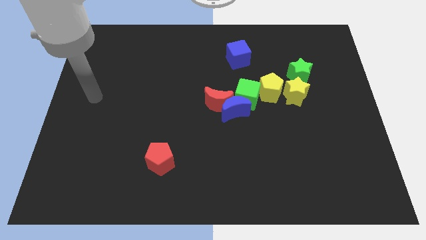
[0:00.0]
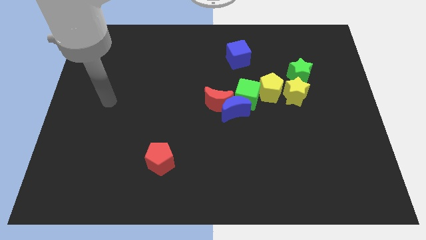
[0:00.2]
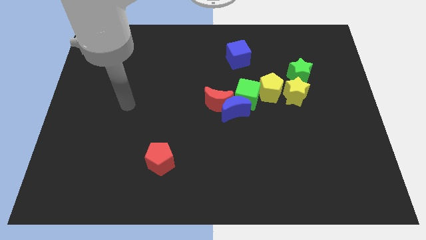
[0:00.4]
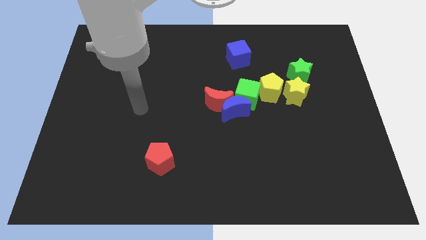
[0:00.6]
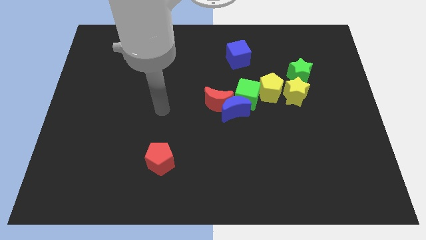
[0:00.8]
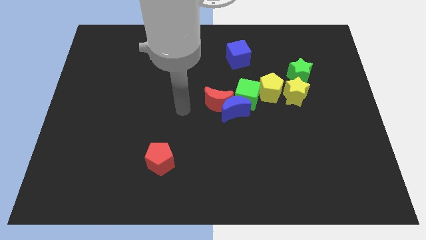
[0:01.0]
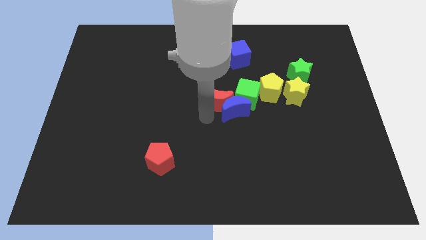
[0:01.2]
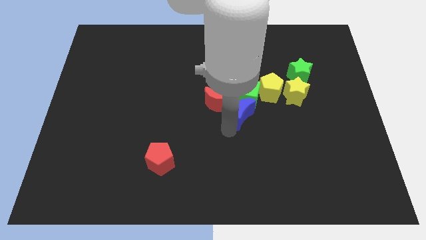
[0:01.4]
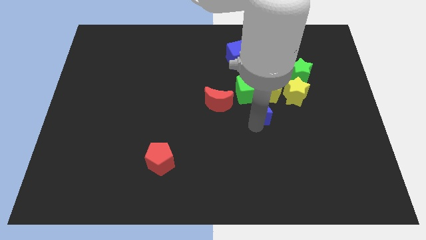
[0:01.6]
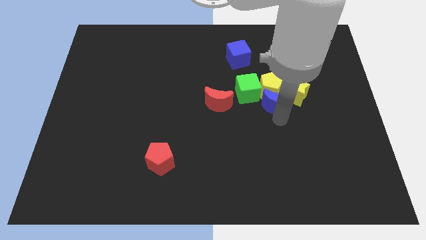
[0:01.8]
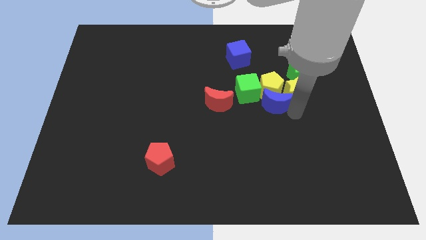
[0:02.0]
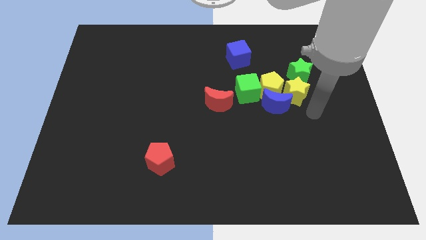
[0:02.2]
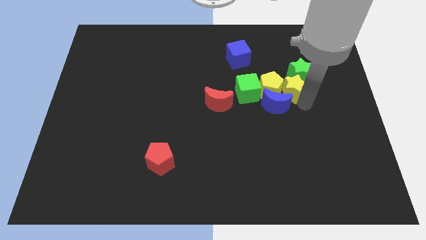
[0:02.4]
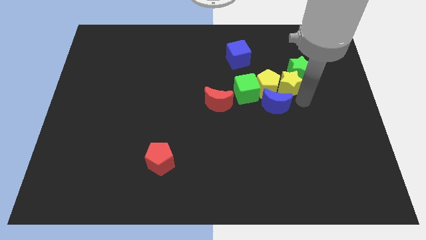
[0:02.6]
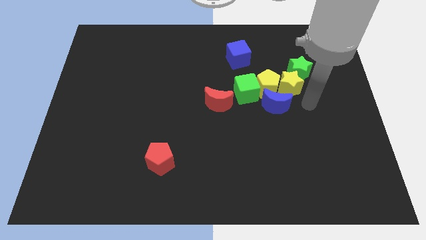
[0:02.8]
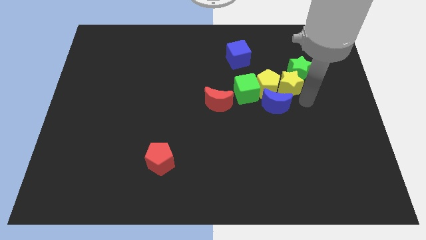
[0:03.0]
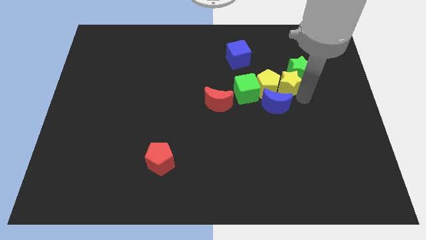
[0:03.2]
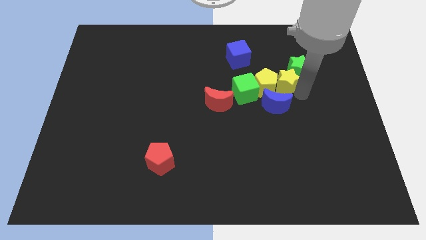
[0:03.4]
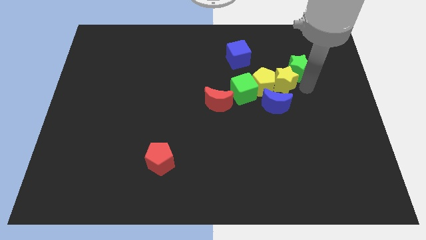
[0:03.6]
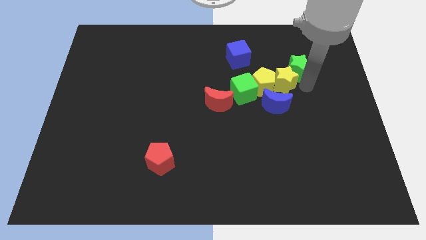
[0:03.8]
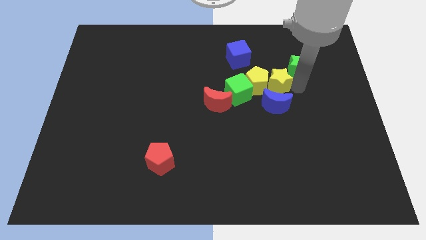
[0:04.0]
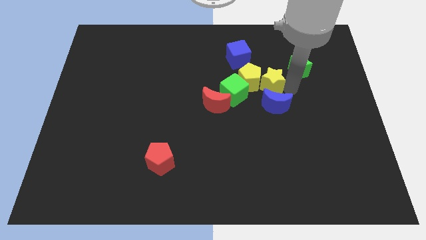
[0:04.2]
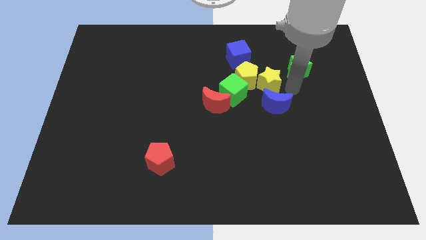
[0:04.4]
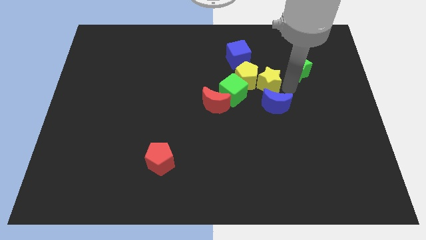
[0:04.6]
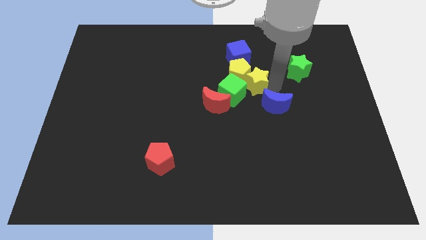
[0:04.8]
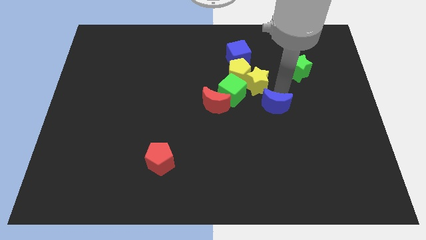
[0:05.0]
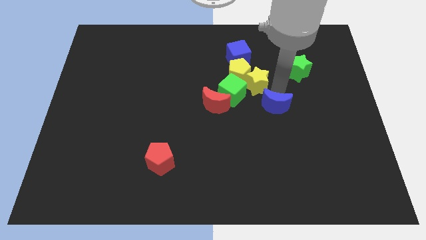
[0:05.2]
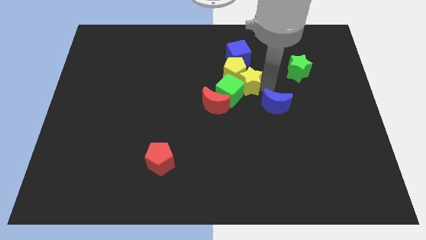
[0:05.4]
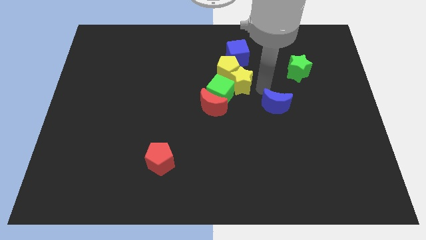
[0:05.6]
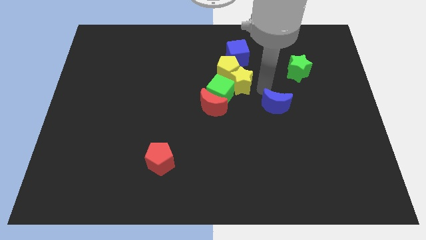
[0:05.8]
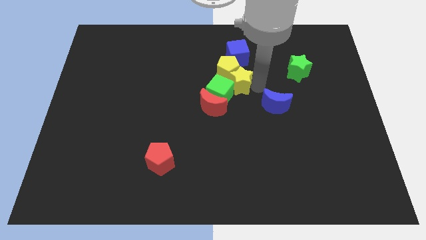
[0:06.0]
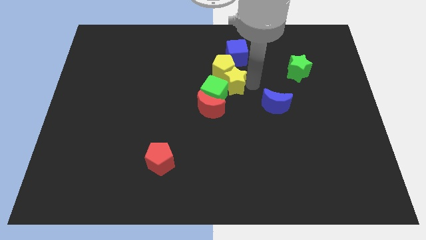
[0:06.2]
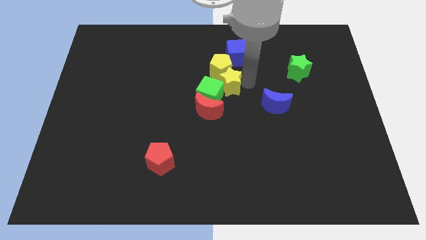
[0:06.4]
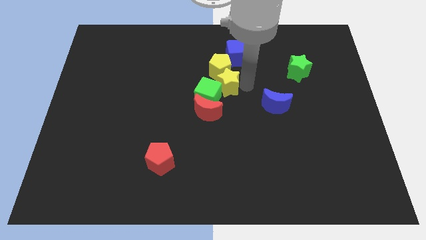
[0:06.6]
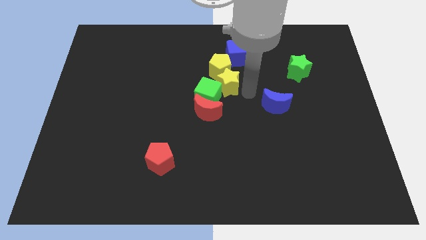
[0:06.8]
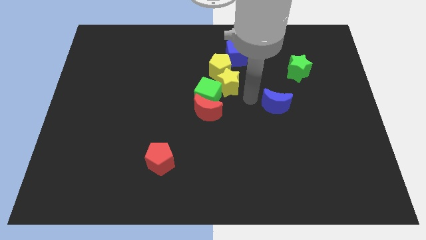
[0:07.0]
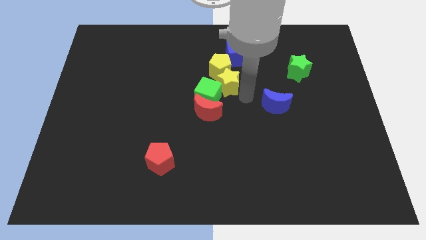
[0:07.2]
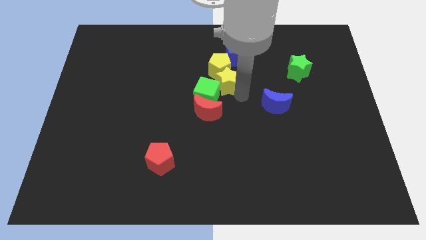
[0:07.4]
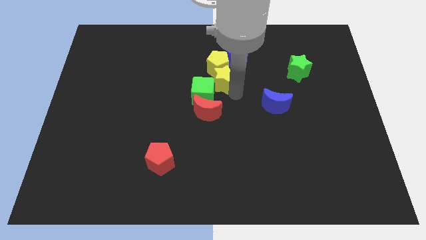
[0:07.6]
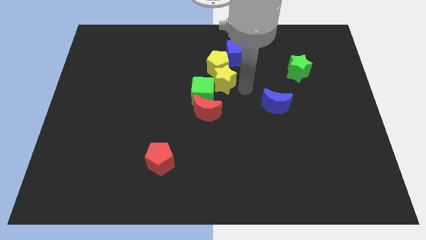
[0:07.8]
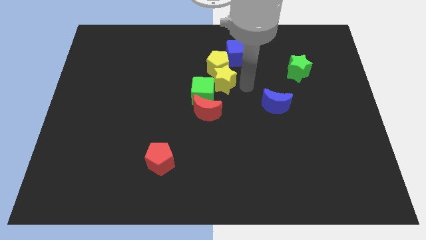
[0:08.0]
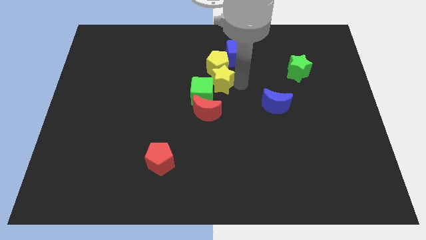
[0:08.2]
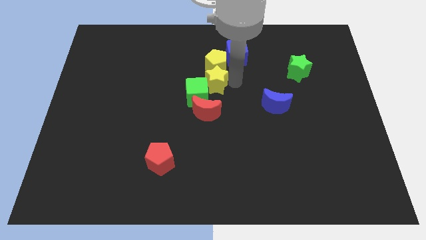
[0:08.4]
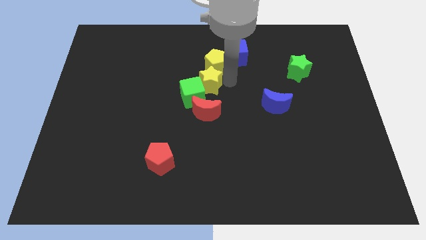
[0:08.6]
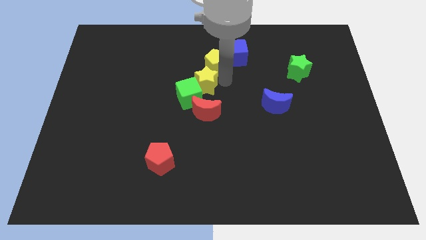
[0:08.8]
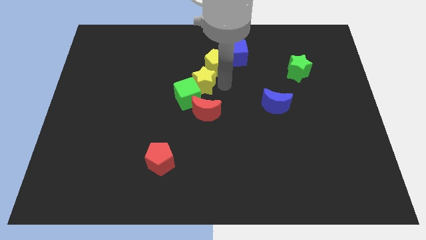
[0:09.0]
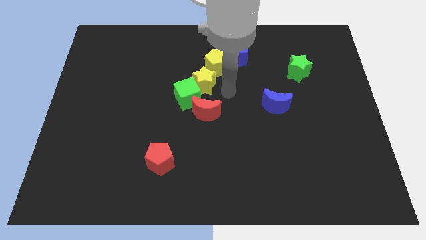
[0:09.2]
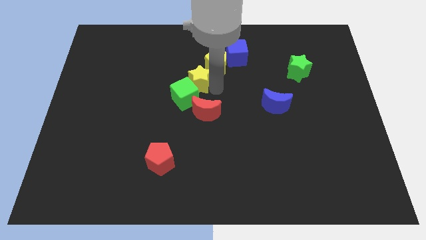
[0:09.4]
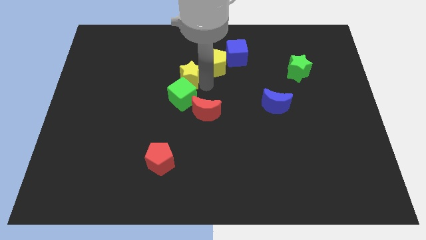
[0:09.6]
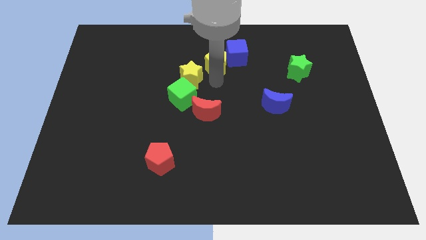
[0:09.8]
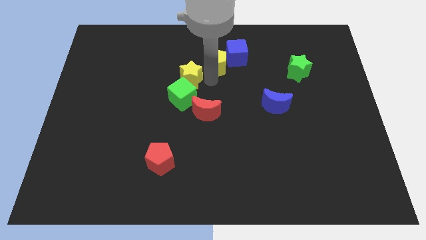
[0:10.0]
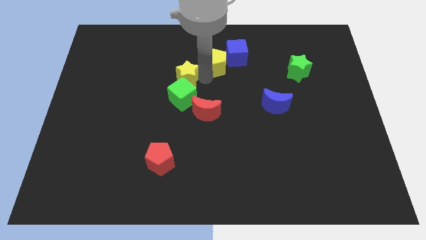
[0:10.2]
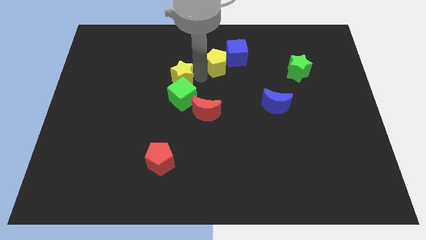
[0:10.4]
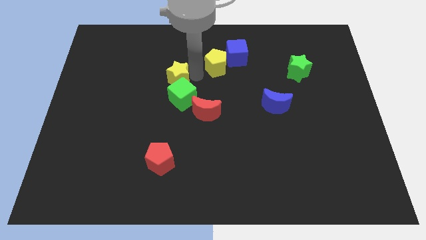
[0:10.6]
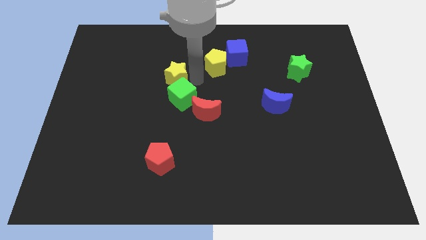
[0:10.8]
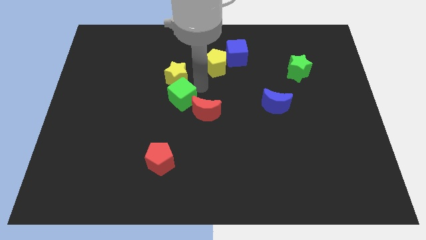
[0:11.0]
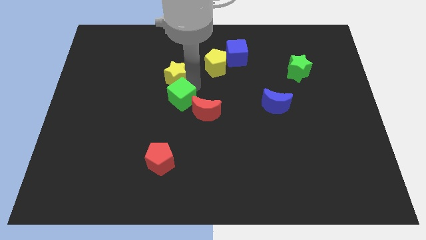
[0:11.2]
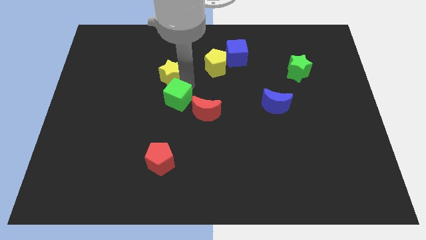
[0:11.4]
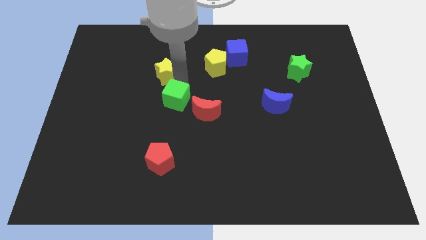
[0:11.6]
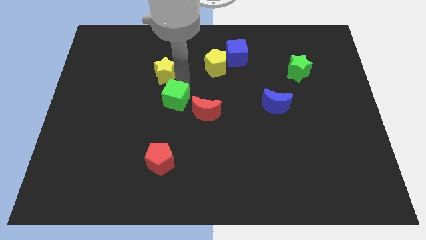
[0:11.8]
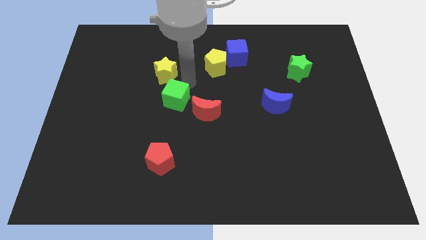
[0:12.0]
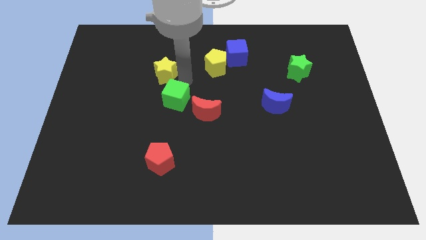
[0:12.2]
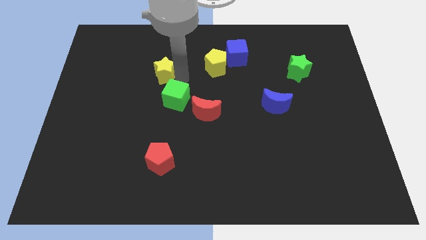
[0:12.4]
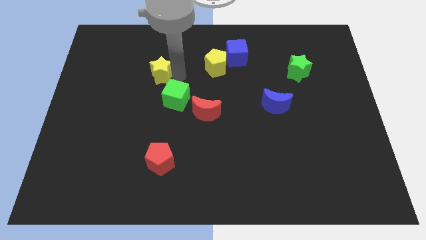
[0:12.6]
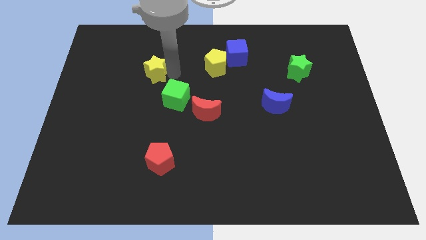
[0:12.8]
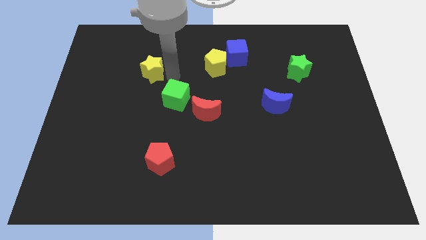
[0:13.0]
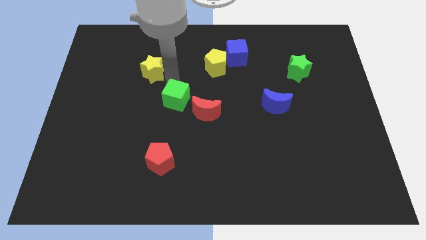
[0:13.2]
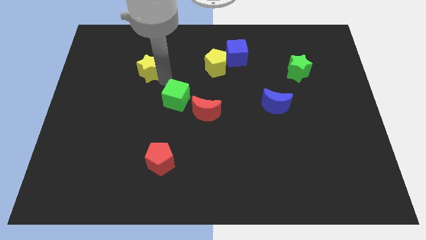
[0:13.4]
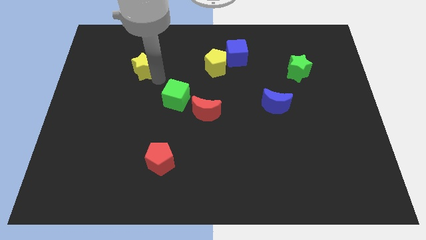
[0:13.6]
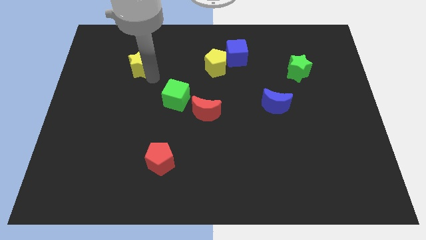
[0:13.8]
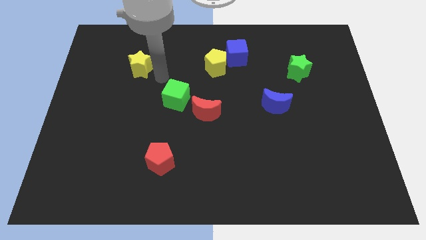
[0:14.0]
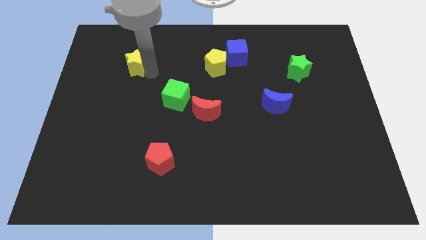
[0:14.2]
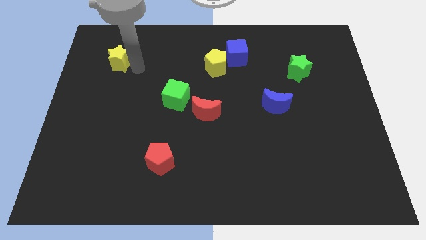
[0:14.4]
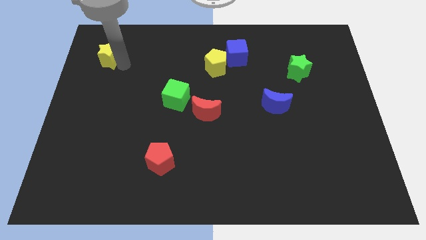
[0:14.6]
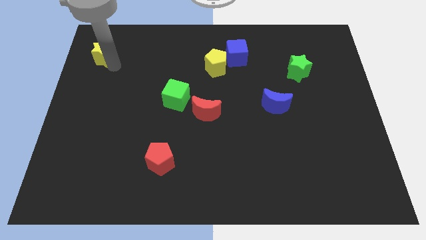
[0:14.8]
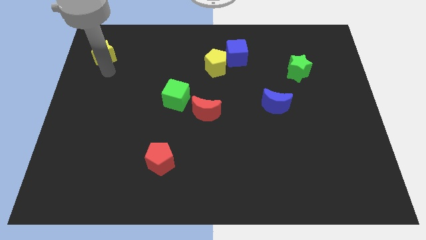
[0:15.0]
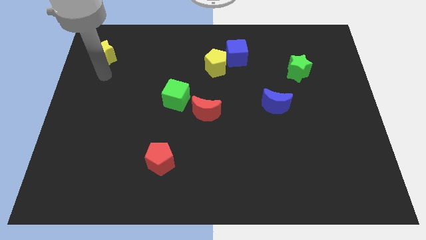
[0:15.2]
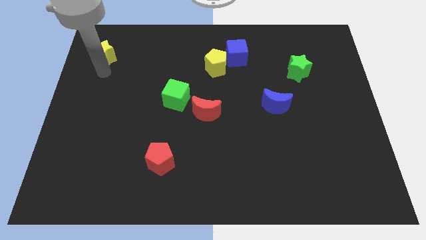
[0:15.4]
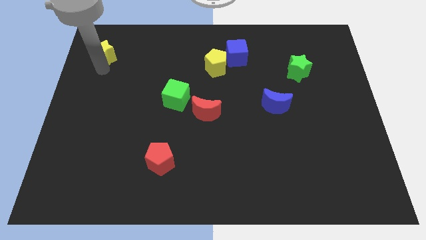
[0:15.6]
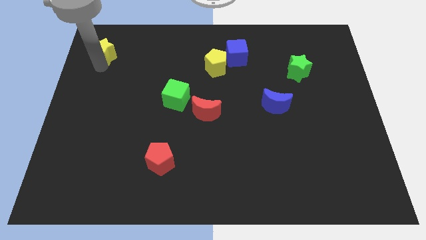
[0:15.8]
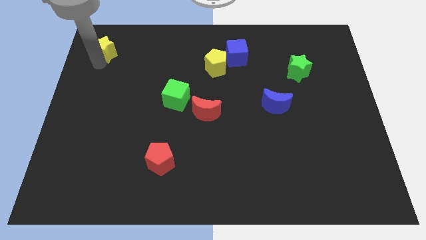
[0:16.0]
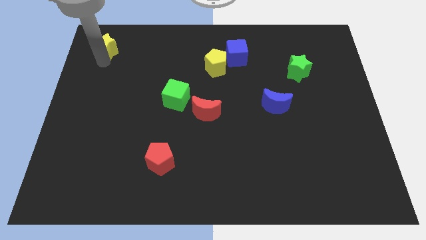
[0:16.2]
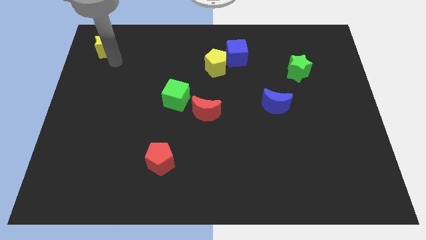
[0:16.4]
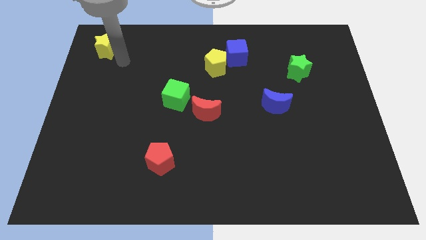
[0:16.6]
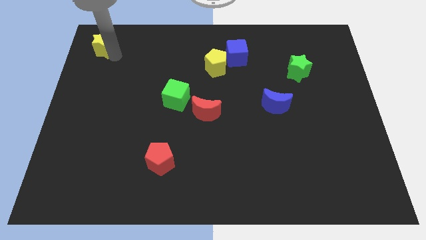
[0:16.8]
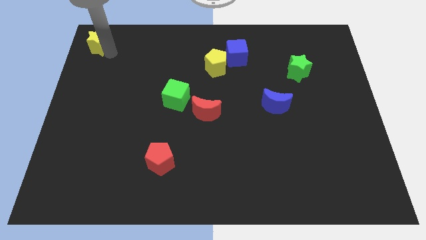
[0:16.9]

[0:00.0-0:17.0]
push the yellow star to the top left corner
